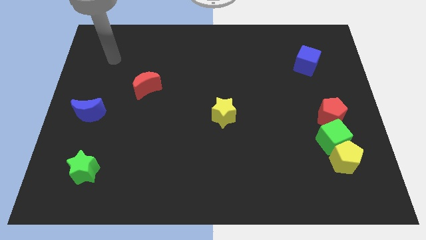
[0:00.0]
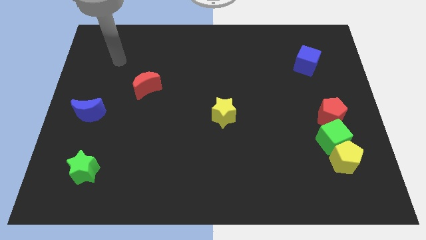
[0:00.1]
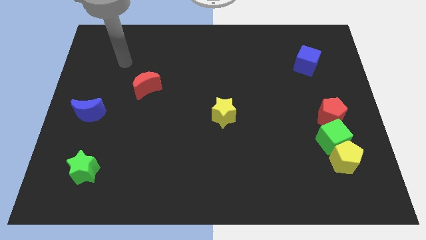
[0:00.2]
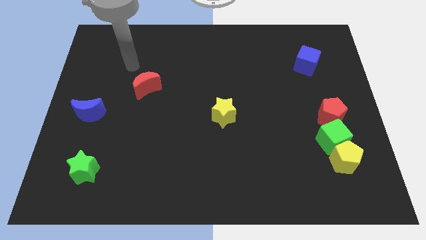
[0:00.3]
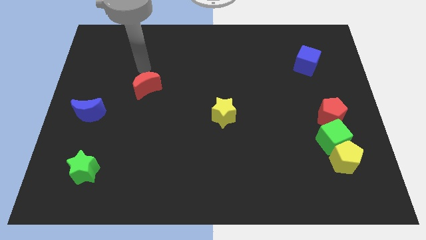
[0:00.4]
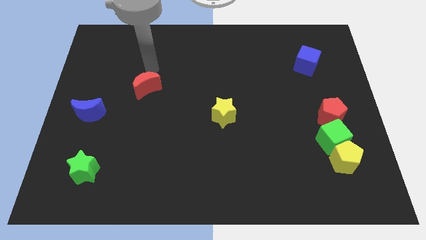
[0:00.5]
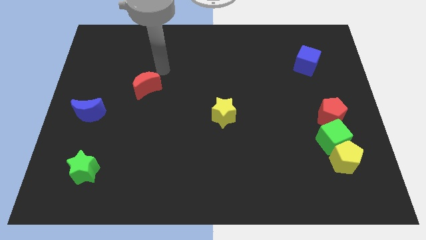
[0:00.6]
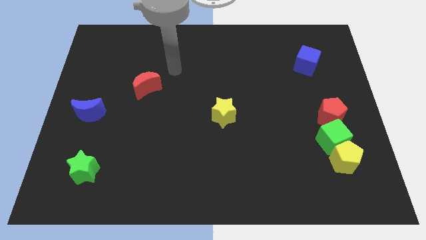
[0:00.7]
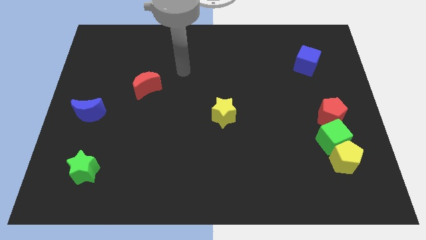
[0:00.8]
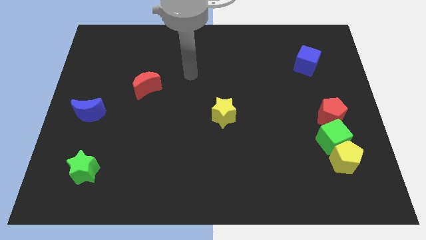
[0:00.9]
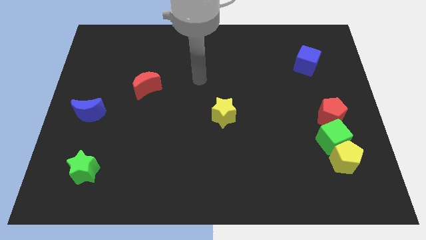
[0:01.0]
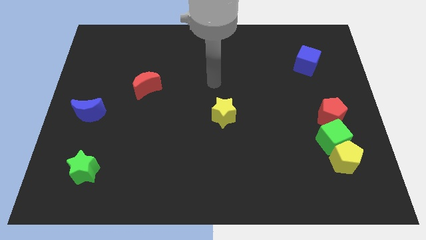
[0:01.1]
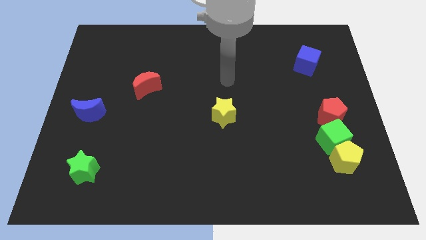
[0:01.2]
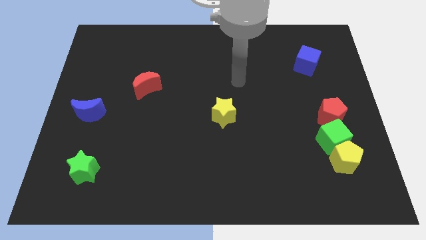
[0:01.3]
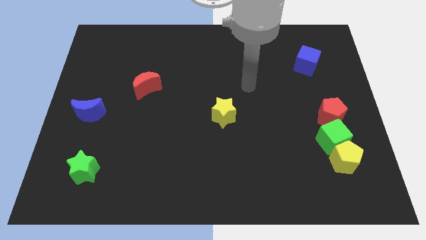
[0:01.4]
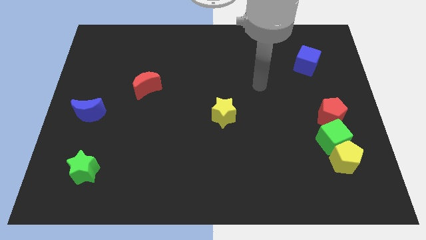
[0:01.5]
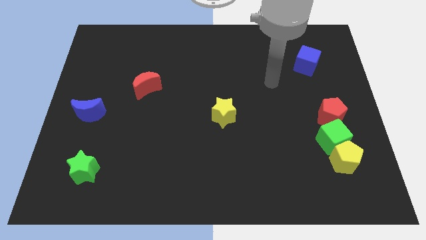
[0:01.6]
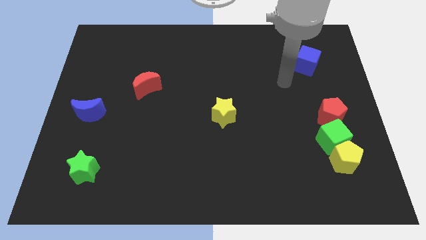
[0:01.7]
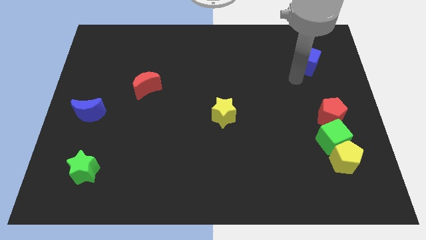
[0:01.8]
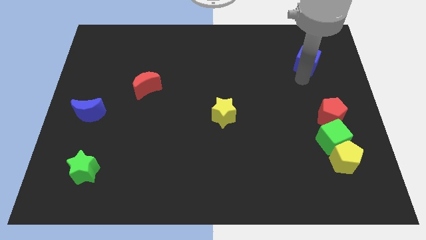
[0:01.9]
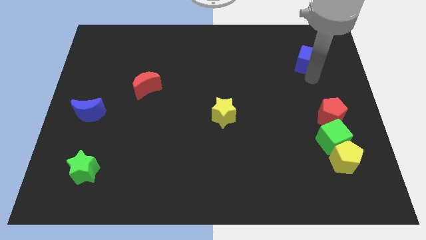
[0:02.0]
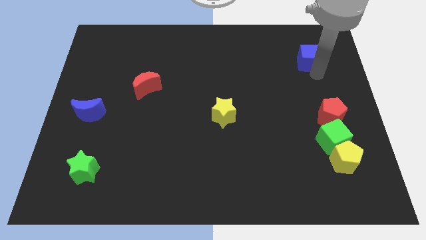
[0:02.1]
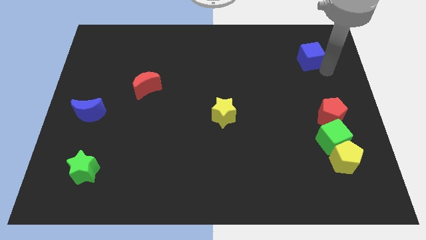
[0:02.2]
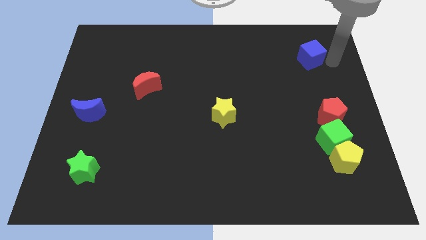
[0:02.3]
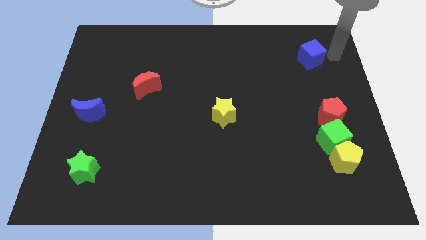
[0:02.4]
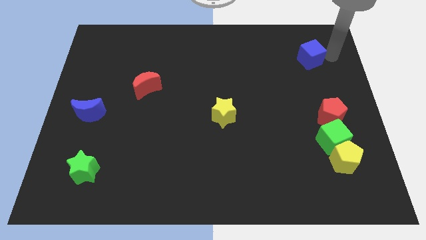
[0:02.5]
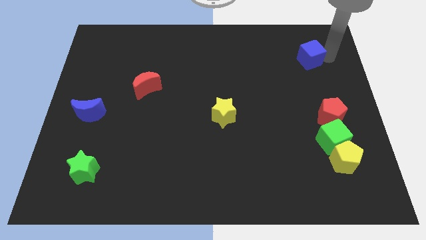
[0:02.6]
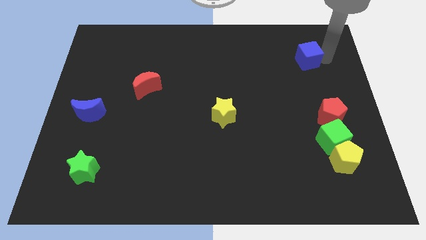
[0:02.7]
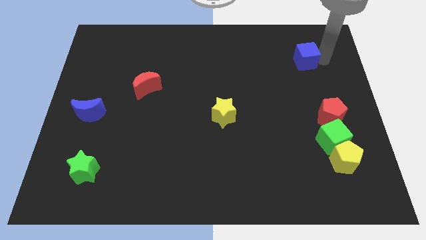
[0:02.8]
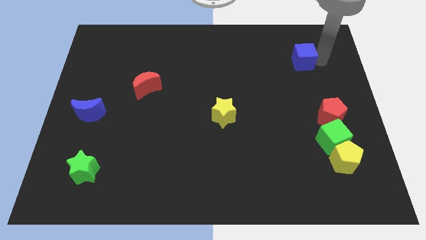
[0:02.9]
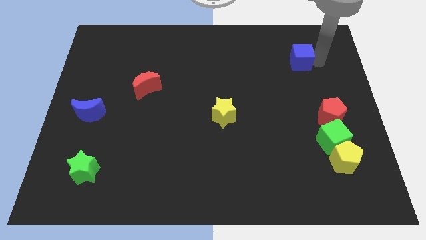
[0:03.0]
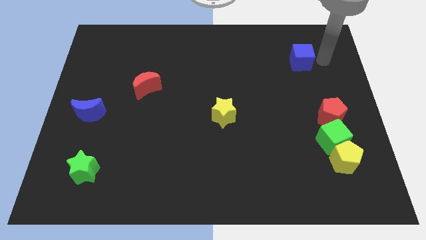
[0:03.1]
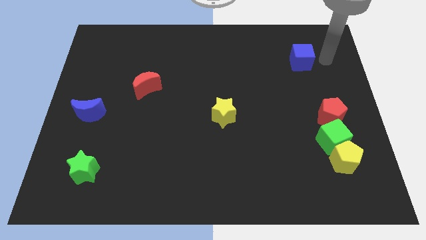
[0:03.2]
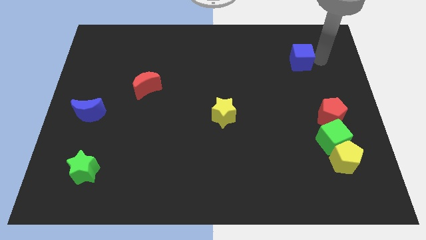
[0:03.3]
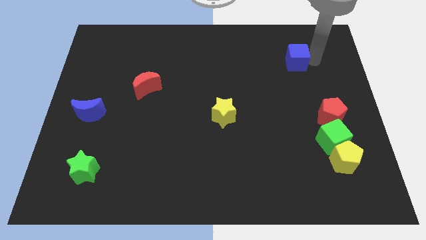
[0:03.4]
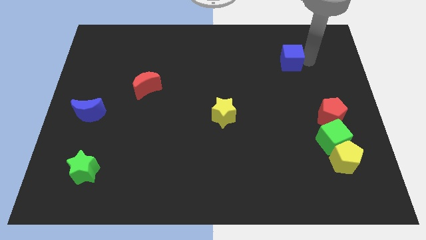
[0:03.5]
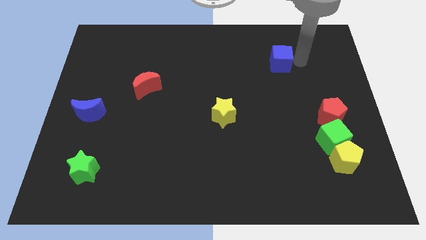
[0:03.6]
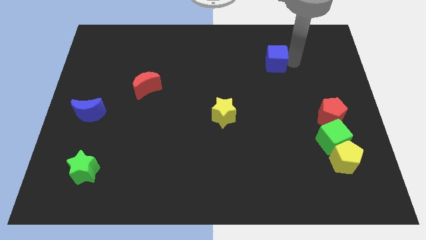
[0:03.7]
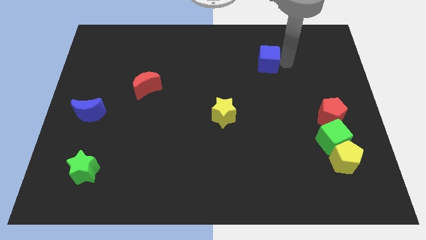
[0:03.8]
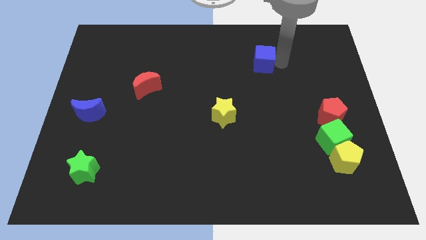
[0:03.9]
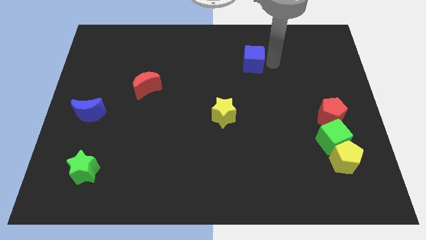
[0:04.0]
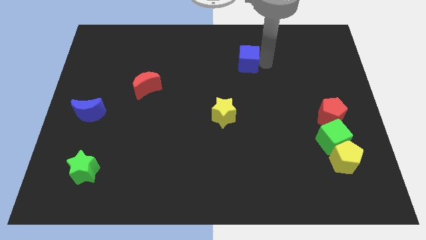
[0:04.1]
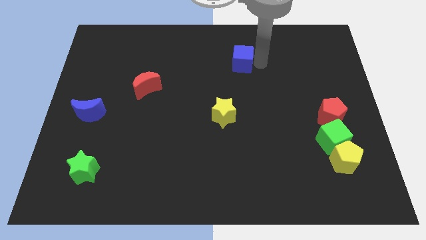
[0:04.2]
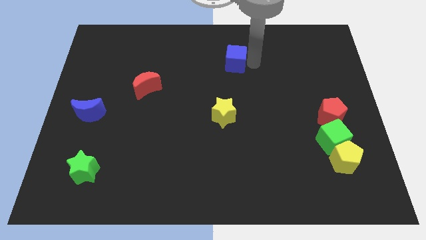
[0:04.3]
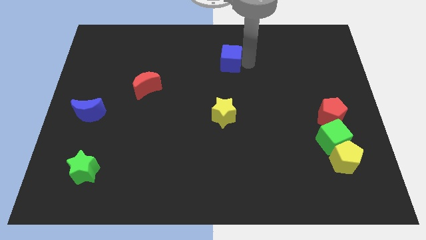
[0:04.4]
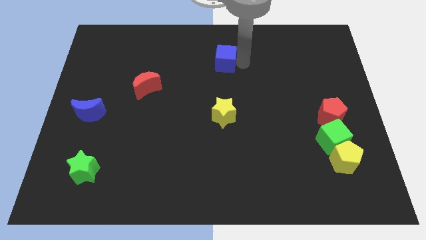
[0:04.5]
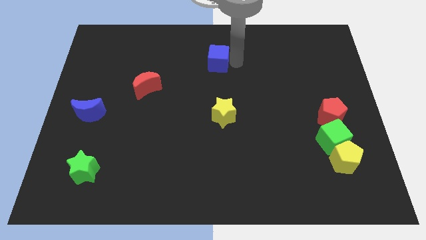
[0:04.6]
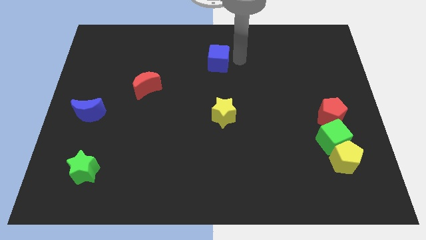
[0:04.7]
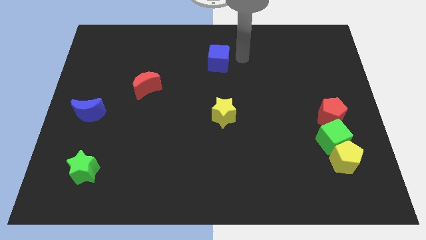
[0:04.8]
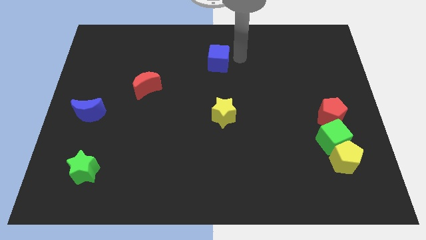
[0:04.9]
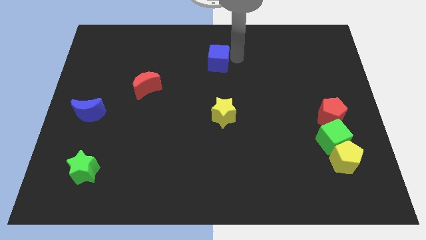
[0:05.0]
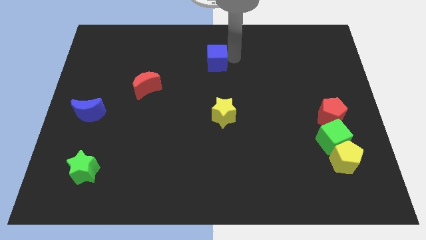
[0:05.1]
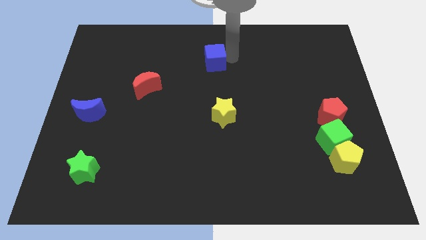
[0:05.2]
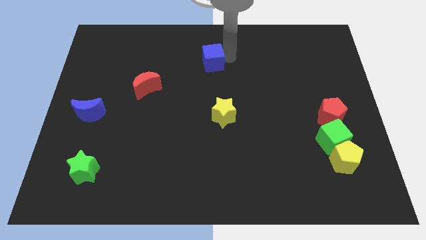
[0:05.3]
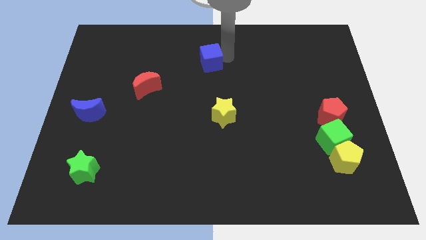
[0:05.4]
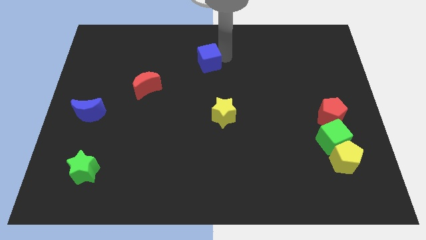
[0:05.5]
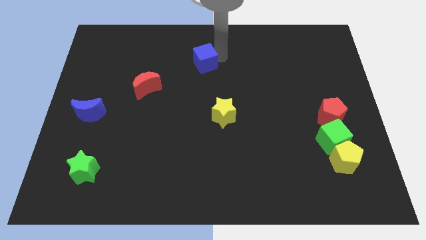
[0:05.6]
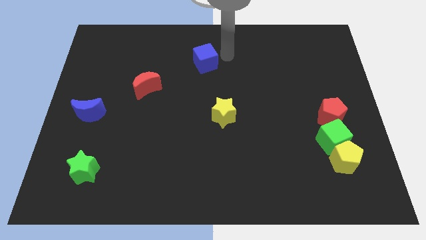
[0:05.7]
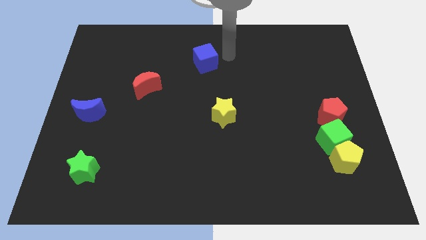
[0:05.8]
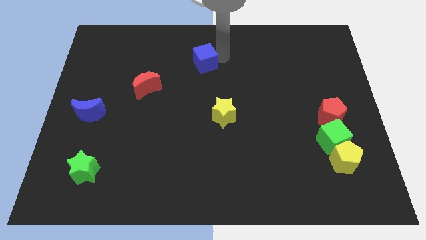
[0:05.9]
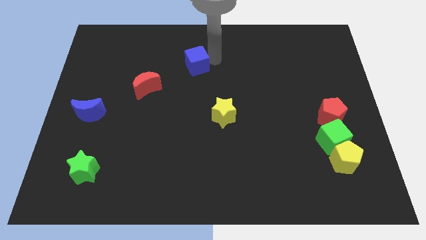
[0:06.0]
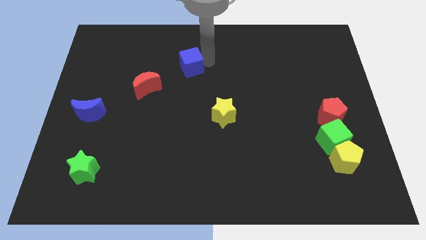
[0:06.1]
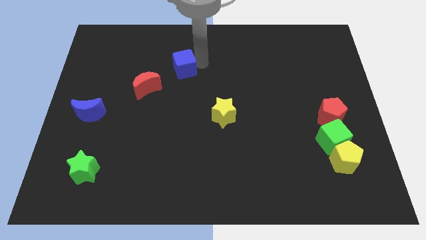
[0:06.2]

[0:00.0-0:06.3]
put the blue cube diagonally up and to the right of the red moon

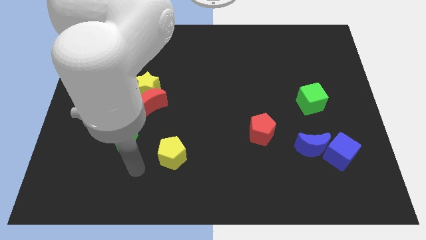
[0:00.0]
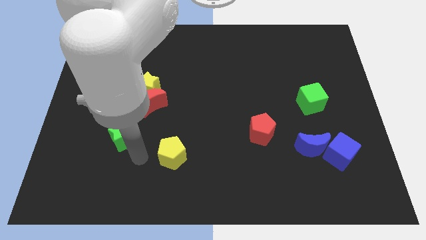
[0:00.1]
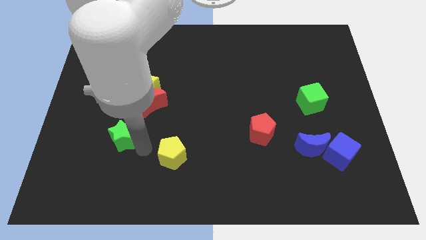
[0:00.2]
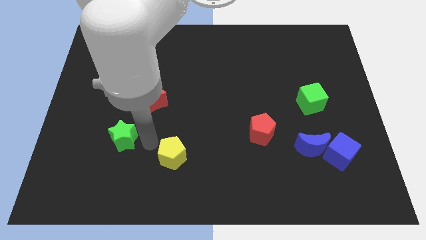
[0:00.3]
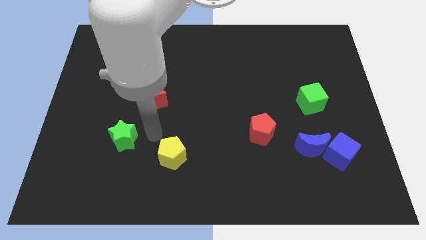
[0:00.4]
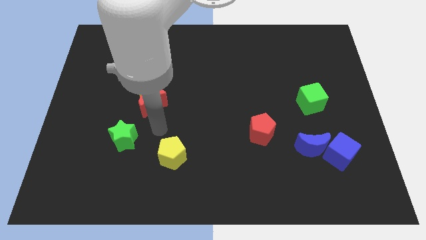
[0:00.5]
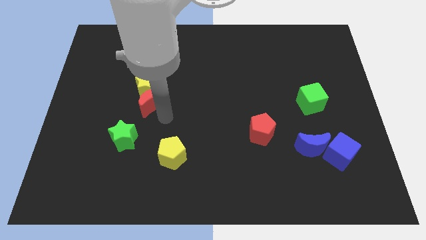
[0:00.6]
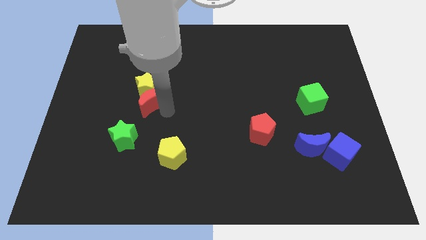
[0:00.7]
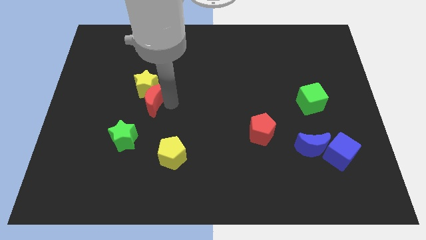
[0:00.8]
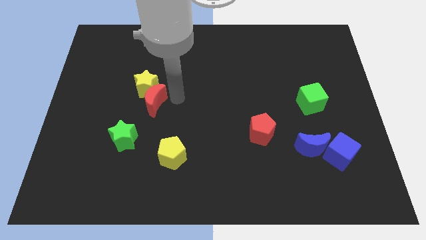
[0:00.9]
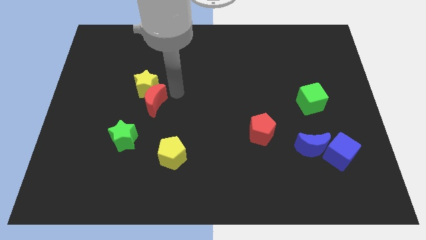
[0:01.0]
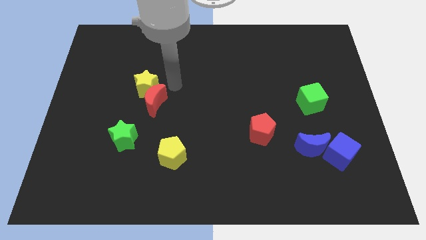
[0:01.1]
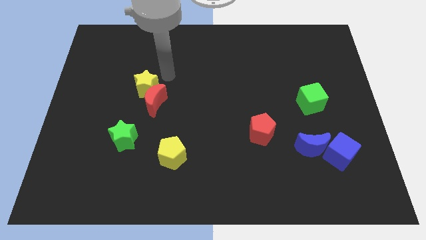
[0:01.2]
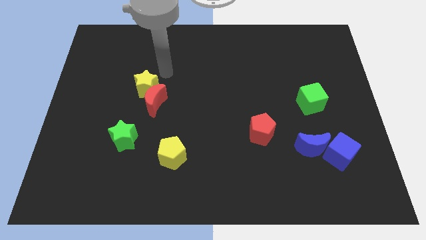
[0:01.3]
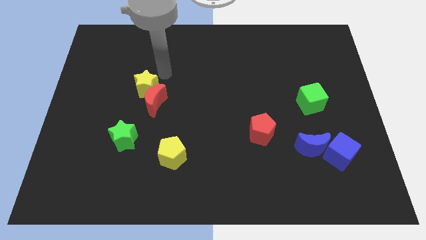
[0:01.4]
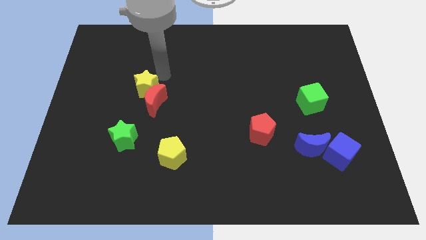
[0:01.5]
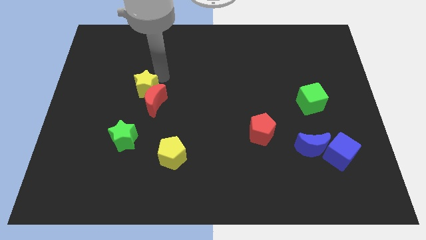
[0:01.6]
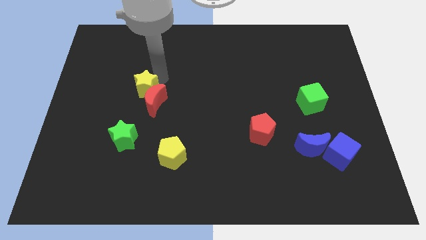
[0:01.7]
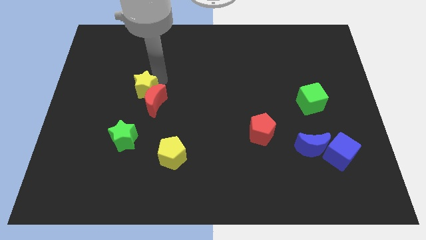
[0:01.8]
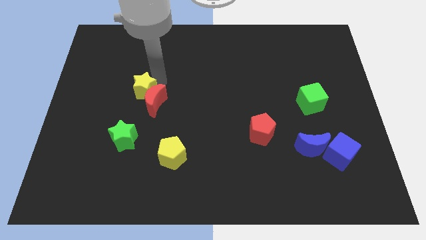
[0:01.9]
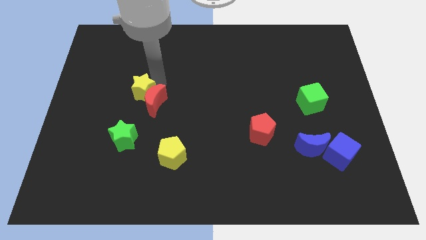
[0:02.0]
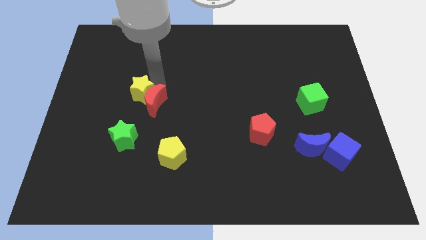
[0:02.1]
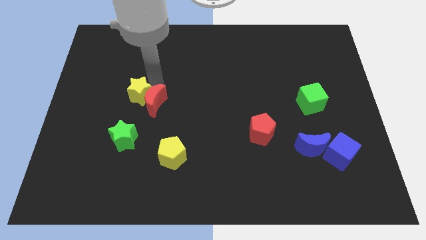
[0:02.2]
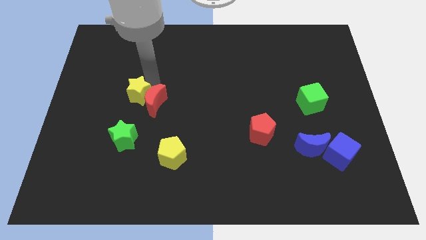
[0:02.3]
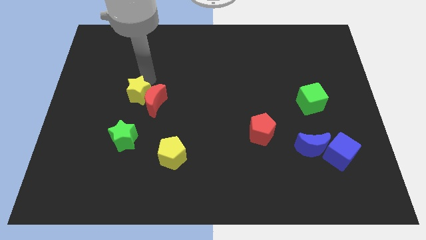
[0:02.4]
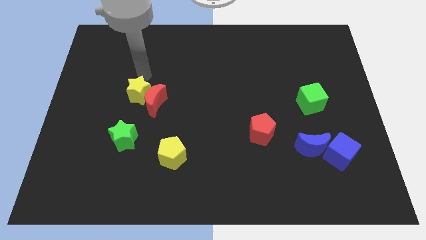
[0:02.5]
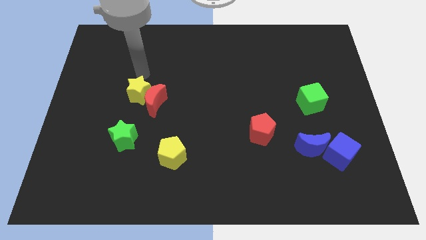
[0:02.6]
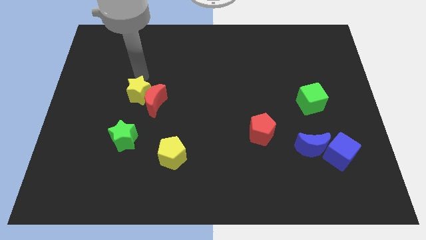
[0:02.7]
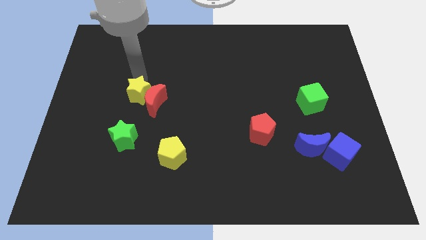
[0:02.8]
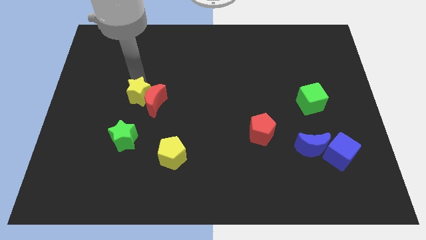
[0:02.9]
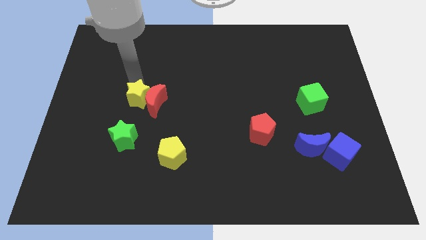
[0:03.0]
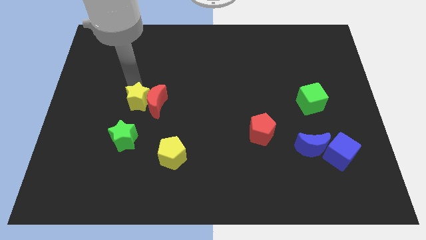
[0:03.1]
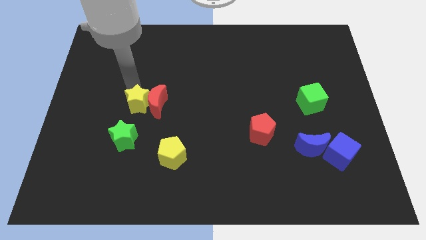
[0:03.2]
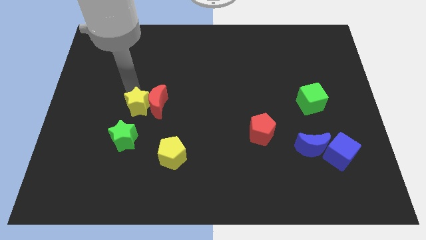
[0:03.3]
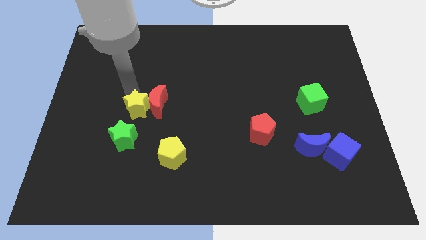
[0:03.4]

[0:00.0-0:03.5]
slide the yellow star diagonally up and to the right of the green star
